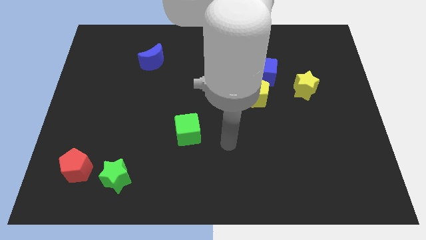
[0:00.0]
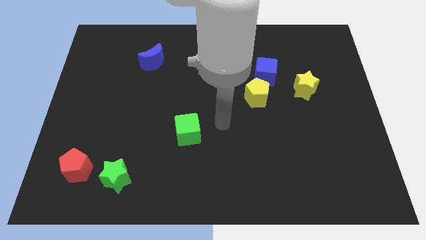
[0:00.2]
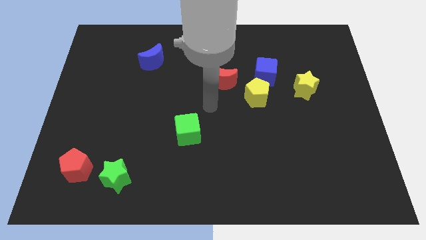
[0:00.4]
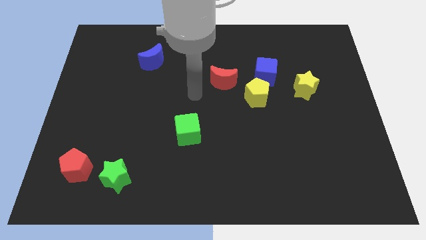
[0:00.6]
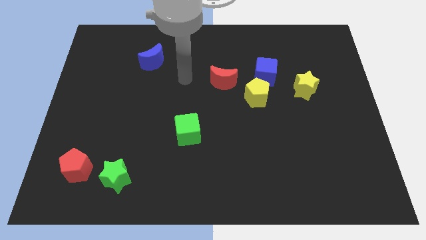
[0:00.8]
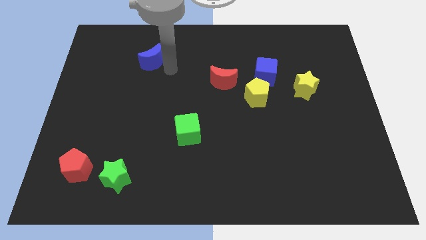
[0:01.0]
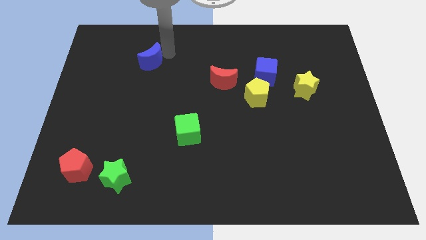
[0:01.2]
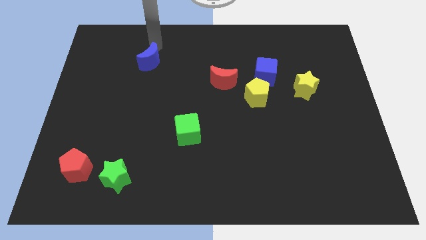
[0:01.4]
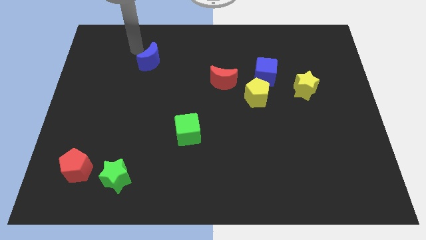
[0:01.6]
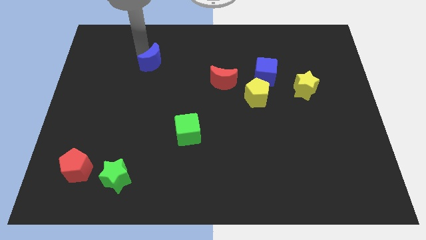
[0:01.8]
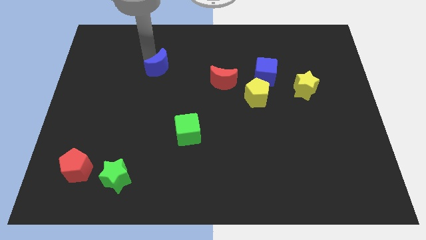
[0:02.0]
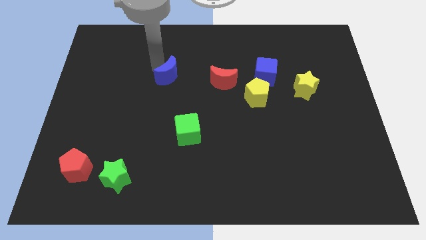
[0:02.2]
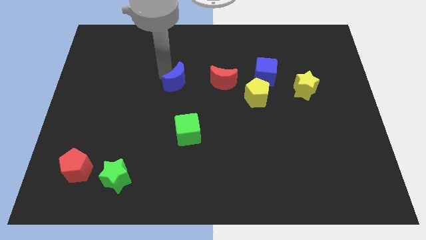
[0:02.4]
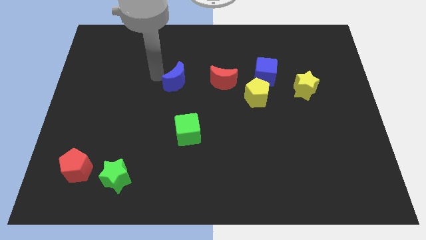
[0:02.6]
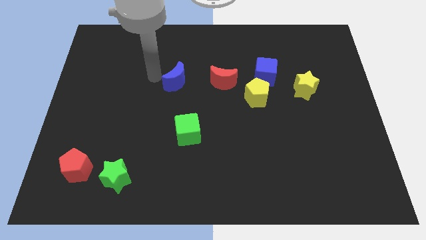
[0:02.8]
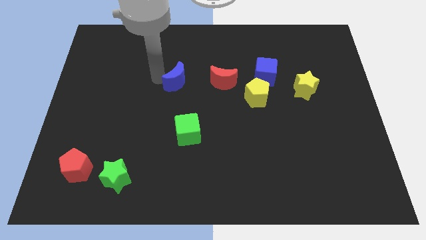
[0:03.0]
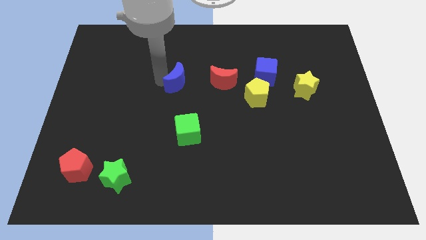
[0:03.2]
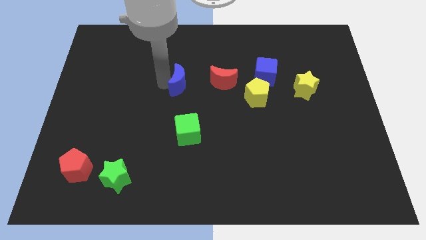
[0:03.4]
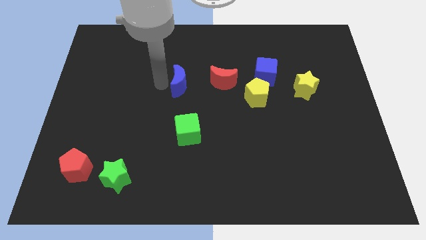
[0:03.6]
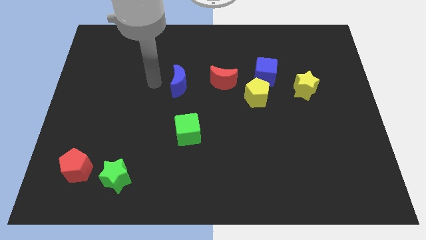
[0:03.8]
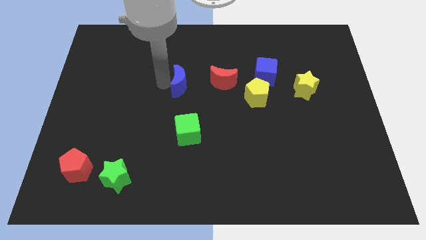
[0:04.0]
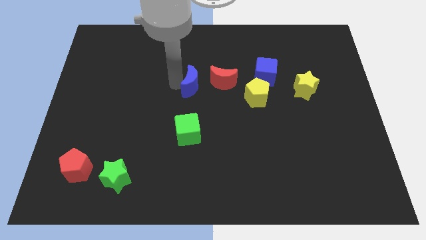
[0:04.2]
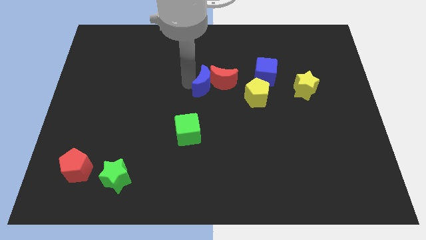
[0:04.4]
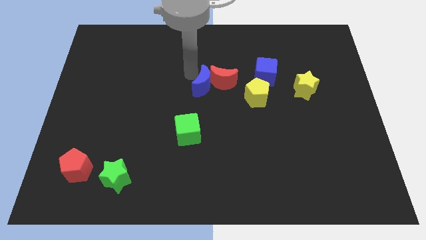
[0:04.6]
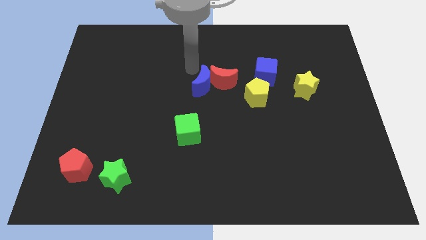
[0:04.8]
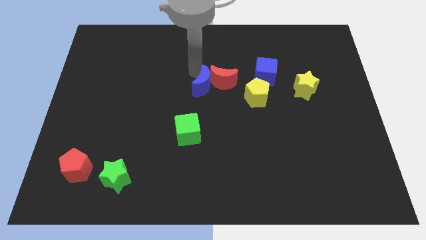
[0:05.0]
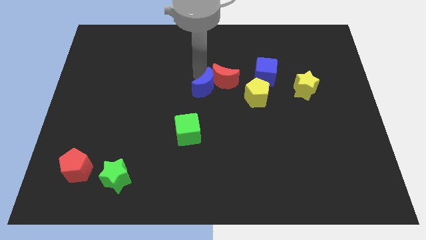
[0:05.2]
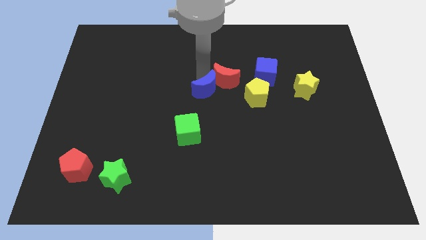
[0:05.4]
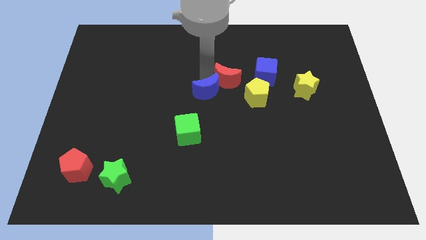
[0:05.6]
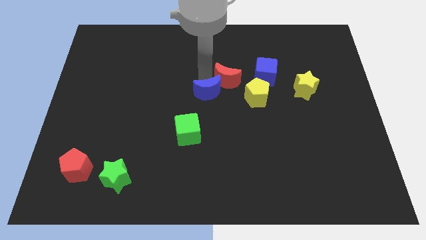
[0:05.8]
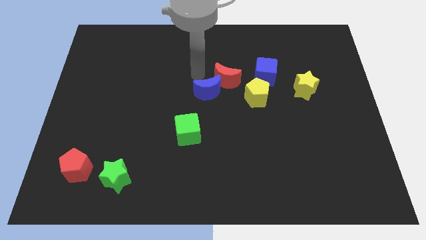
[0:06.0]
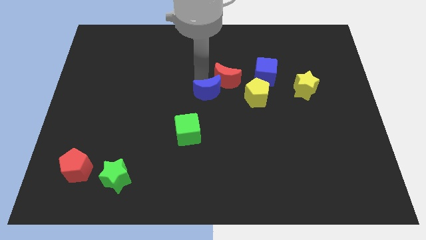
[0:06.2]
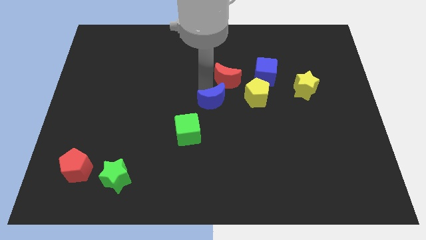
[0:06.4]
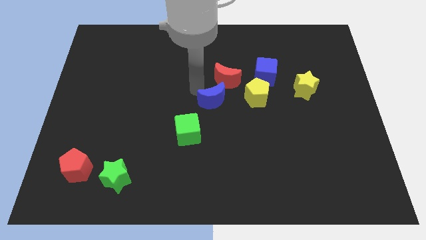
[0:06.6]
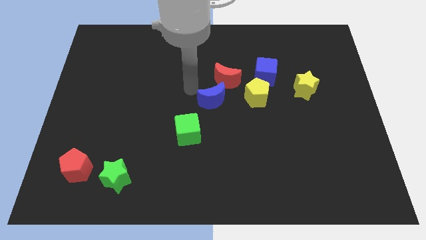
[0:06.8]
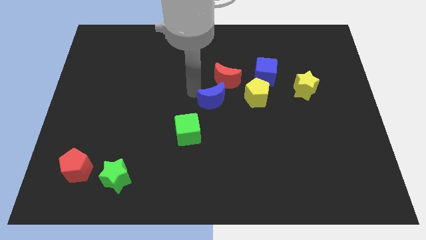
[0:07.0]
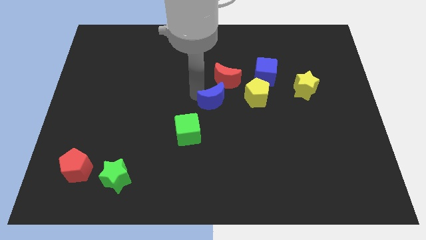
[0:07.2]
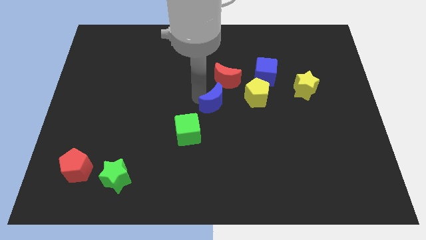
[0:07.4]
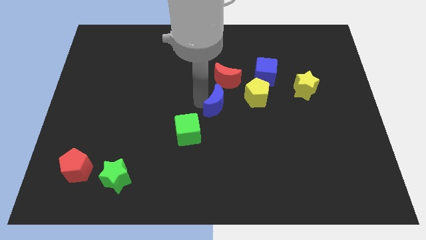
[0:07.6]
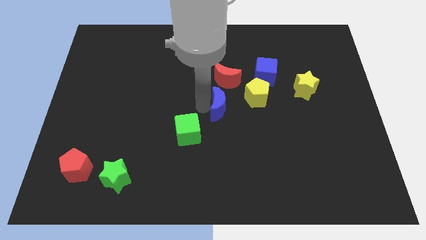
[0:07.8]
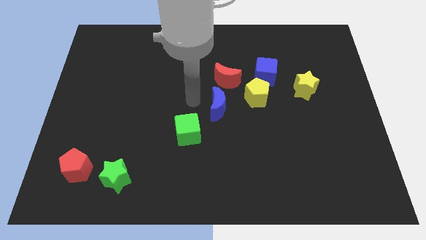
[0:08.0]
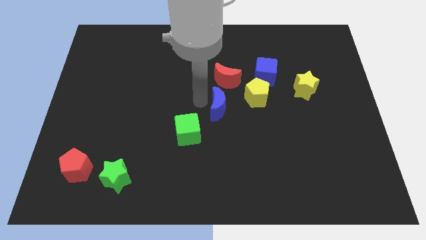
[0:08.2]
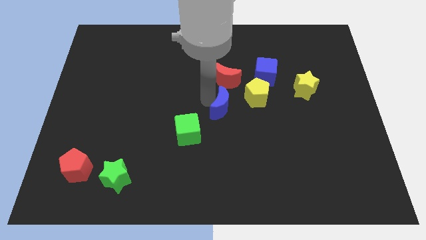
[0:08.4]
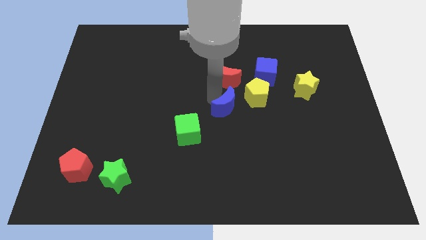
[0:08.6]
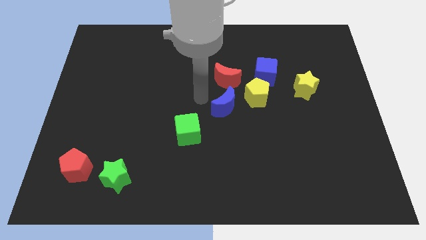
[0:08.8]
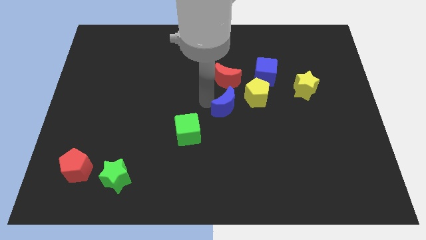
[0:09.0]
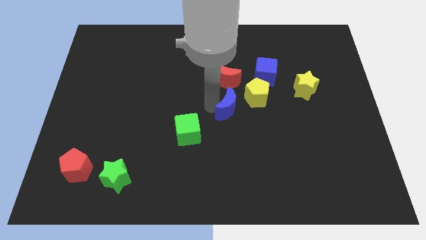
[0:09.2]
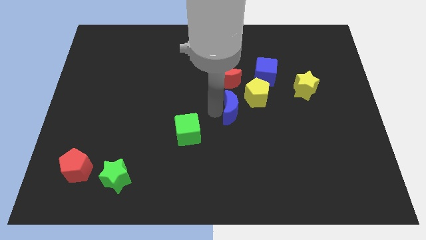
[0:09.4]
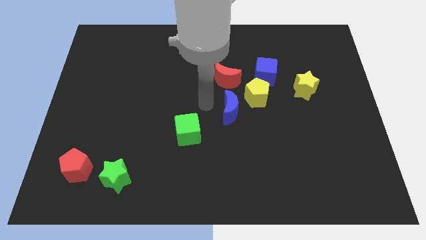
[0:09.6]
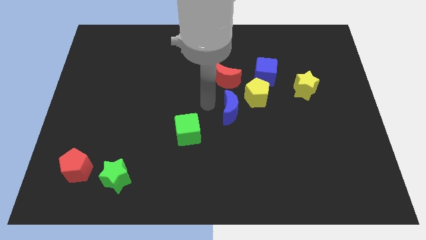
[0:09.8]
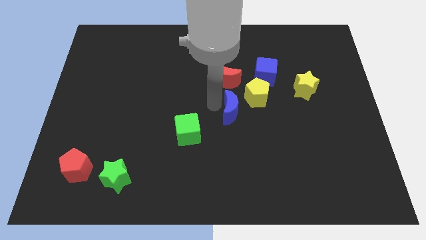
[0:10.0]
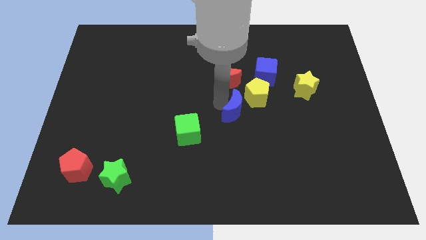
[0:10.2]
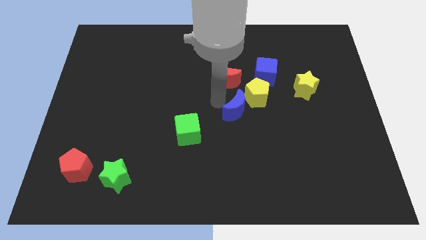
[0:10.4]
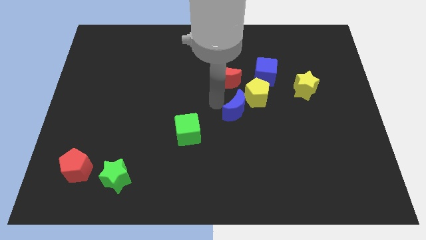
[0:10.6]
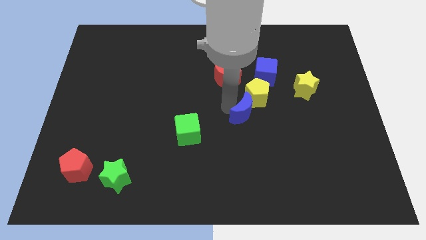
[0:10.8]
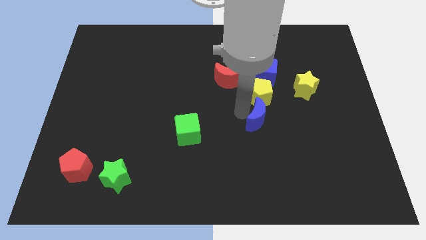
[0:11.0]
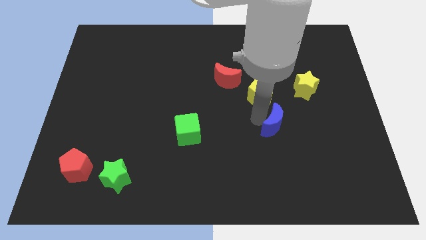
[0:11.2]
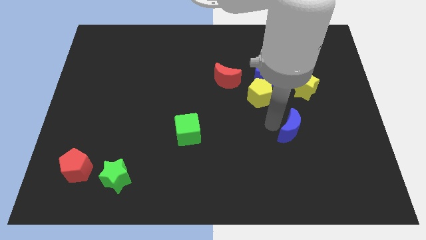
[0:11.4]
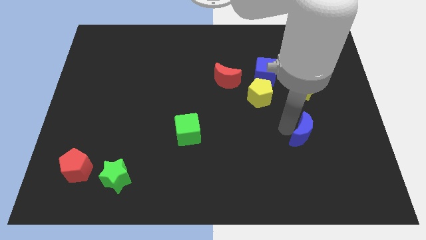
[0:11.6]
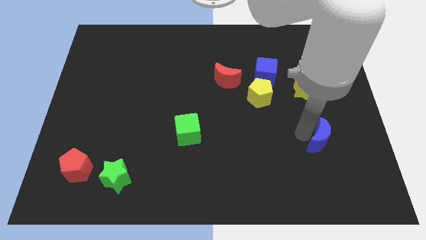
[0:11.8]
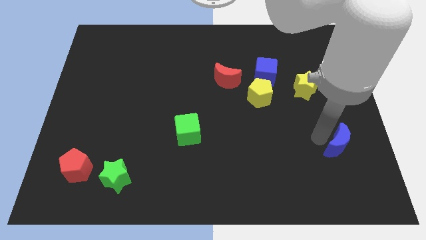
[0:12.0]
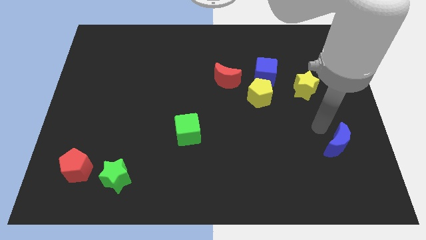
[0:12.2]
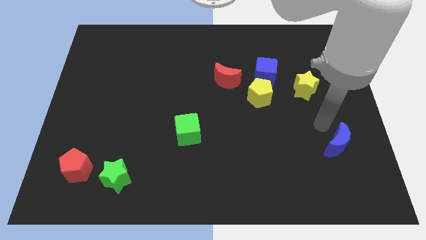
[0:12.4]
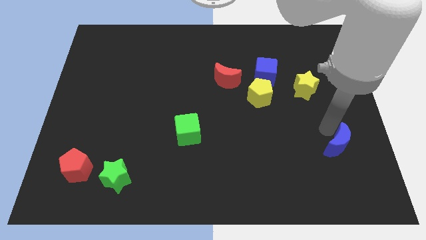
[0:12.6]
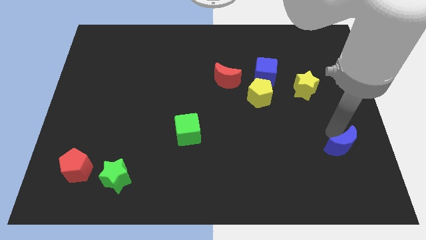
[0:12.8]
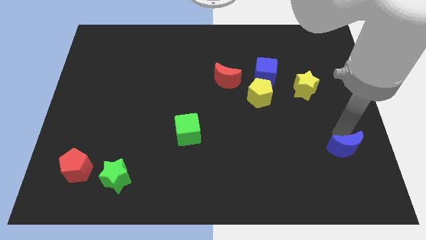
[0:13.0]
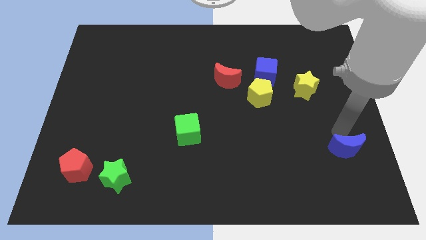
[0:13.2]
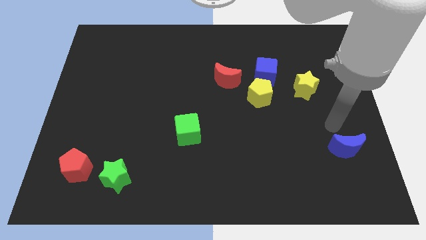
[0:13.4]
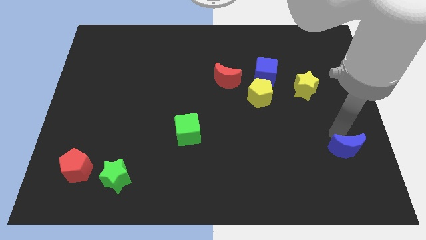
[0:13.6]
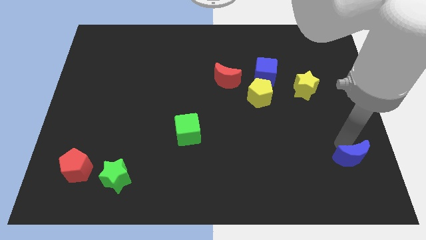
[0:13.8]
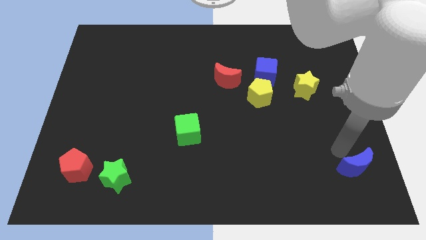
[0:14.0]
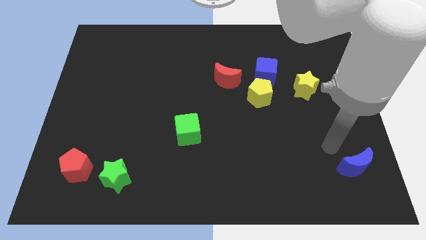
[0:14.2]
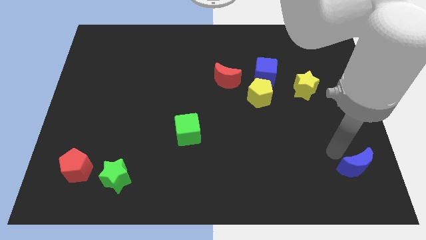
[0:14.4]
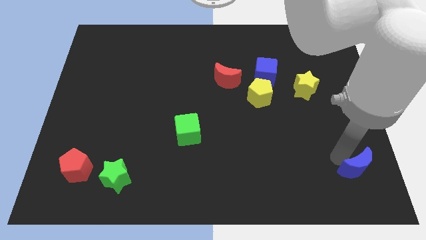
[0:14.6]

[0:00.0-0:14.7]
move the blue moon to the lower right corner
